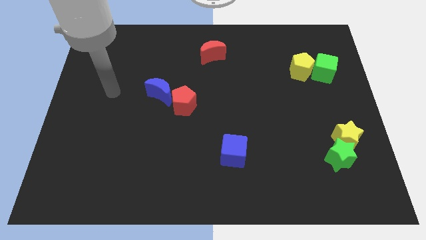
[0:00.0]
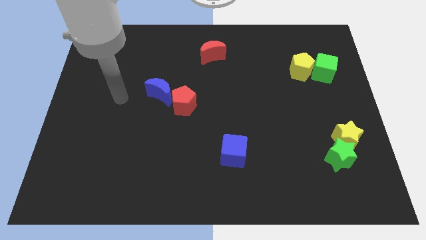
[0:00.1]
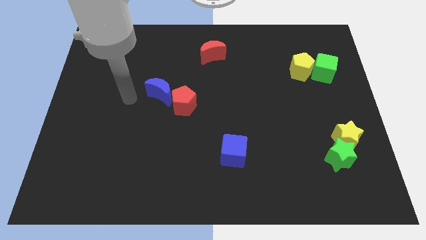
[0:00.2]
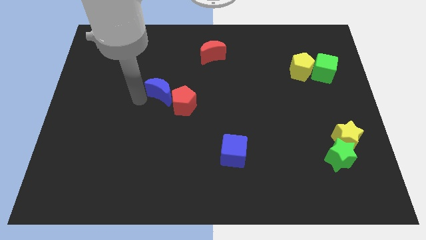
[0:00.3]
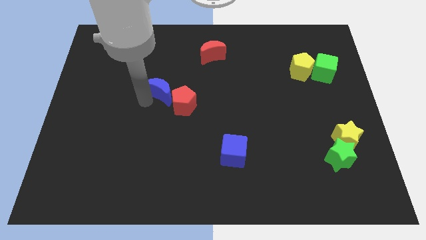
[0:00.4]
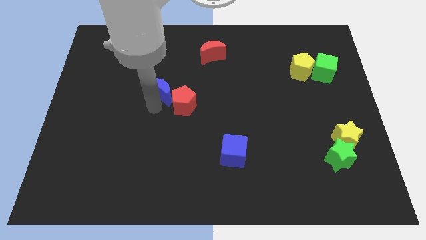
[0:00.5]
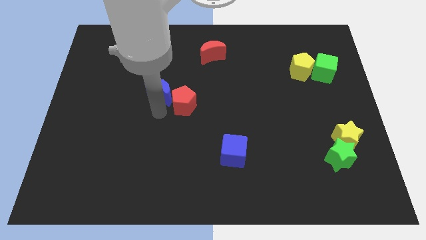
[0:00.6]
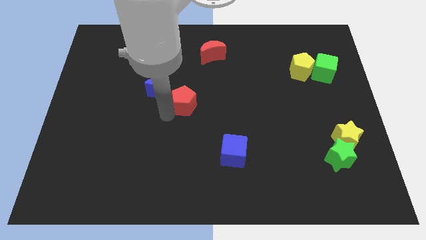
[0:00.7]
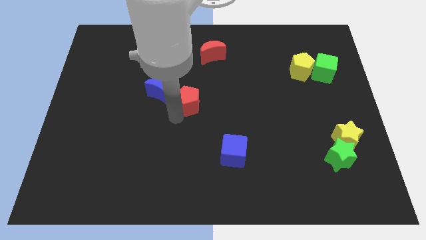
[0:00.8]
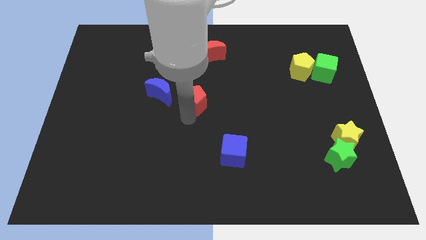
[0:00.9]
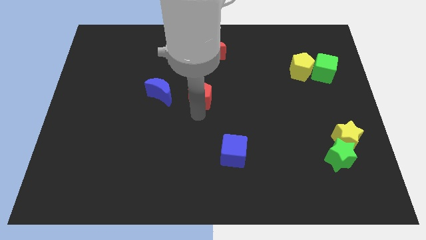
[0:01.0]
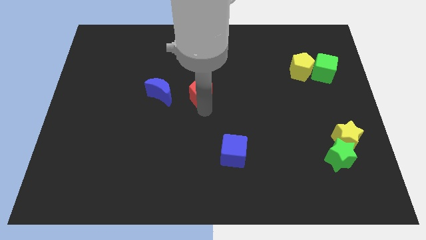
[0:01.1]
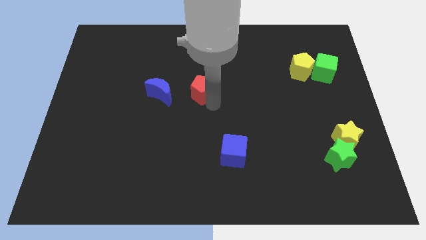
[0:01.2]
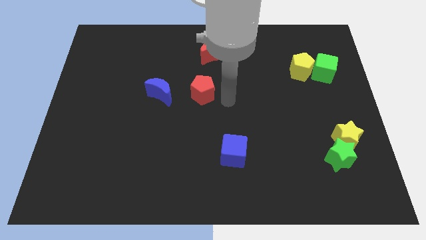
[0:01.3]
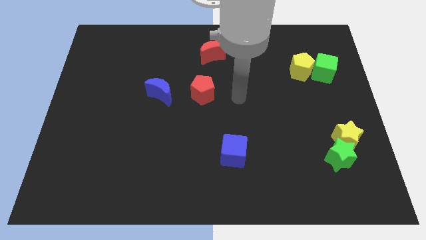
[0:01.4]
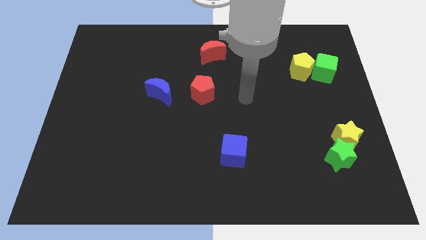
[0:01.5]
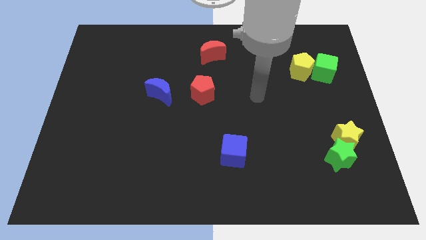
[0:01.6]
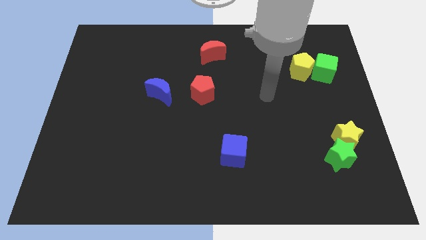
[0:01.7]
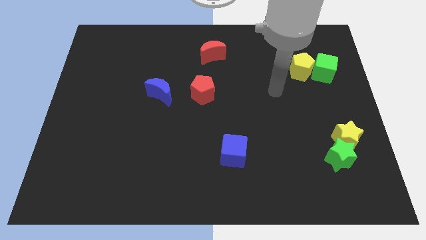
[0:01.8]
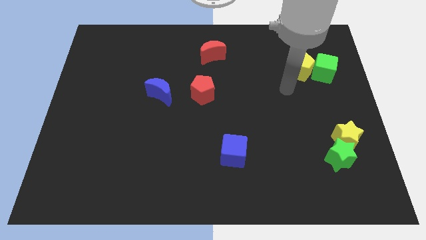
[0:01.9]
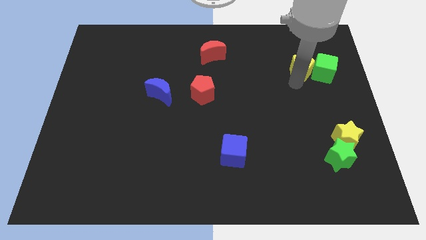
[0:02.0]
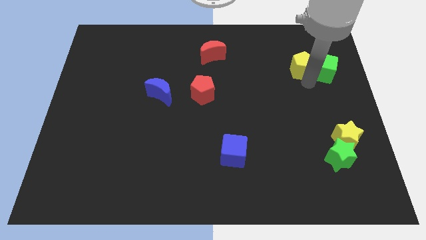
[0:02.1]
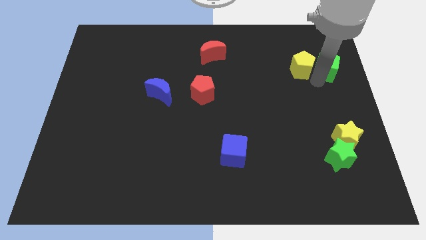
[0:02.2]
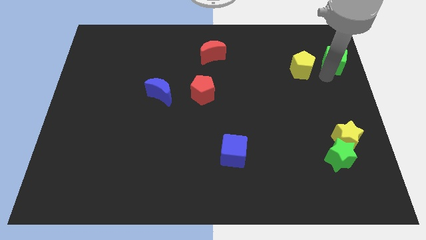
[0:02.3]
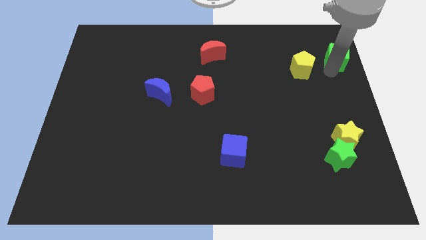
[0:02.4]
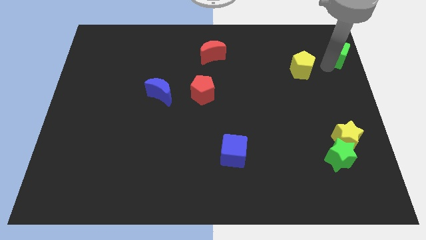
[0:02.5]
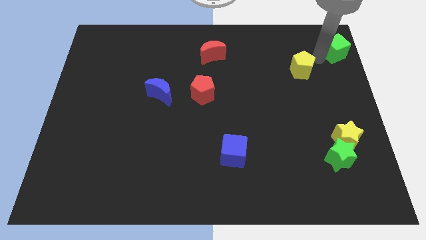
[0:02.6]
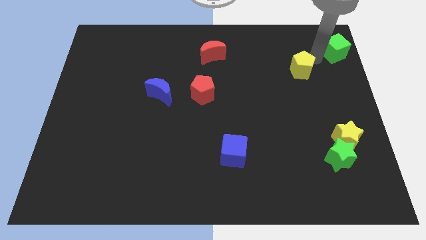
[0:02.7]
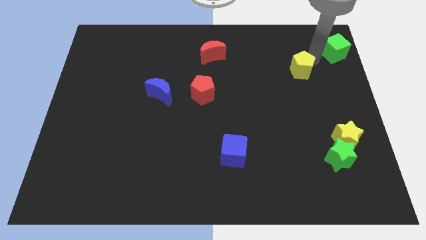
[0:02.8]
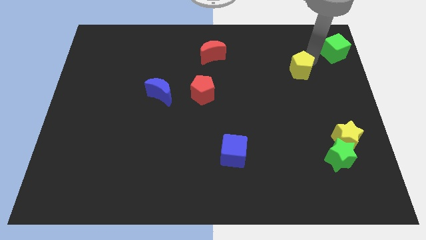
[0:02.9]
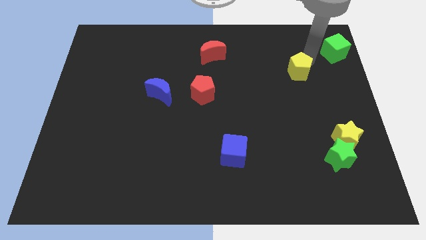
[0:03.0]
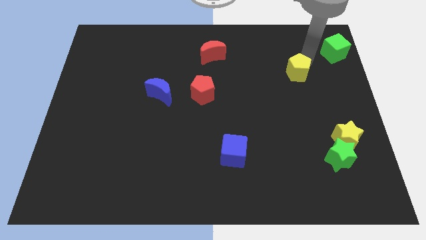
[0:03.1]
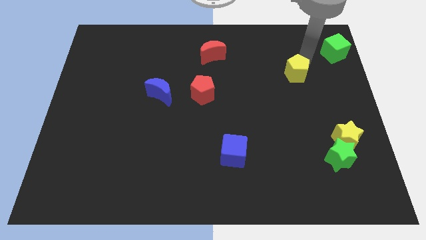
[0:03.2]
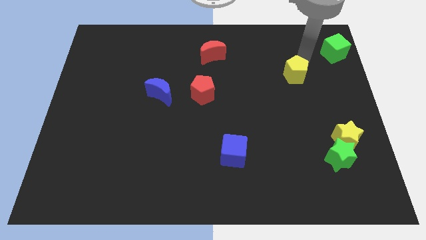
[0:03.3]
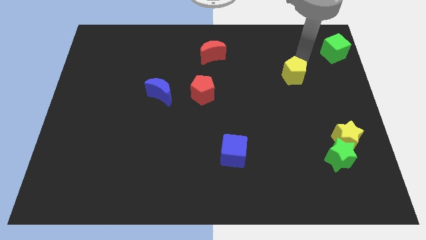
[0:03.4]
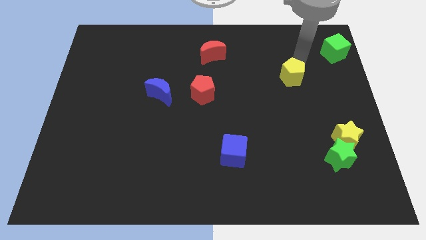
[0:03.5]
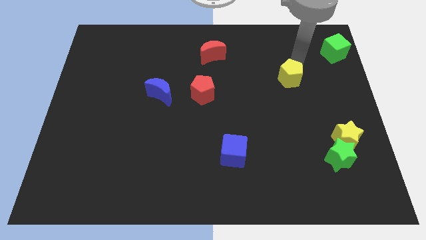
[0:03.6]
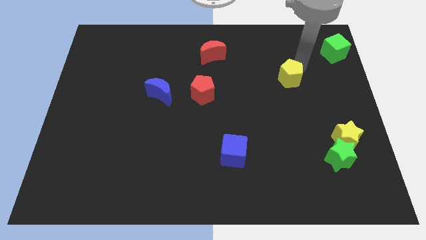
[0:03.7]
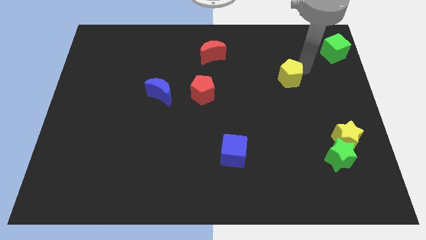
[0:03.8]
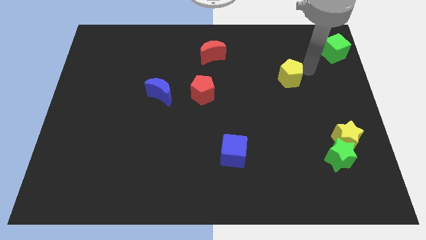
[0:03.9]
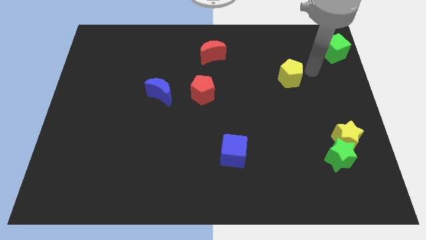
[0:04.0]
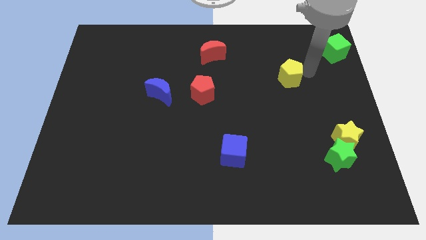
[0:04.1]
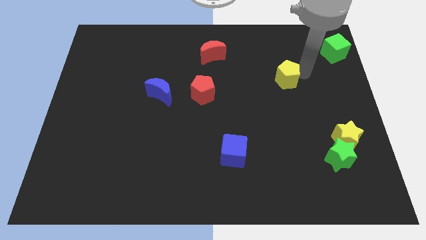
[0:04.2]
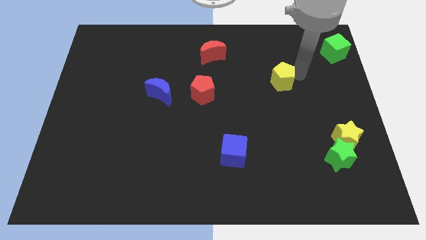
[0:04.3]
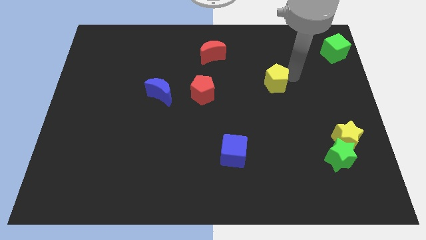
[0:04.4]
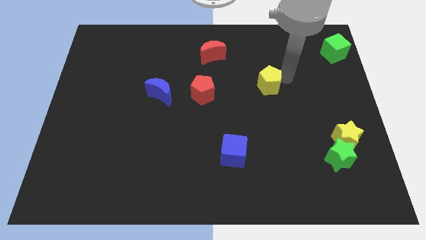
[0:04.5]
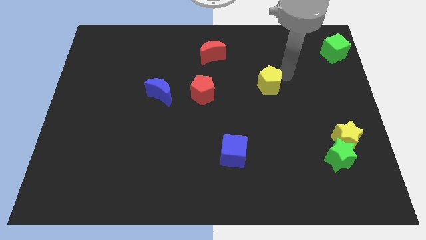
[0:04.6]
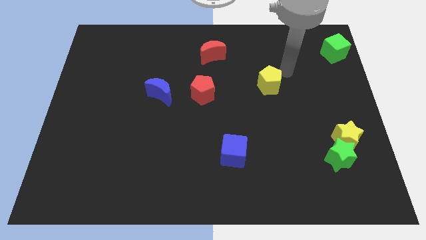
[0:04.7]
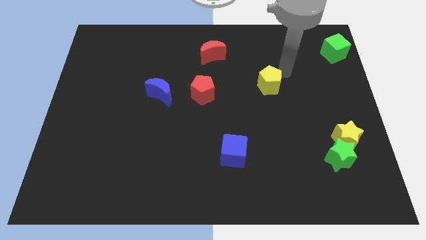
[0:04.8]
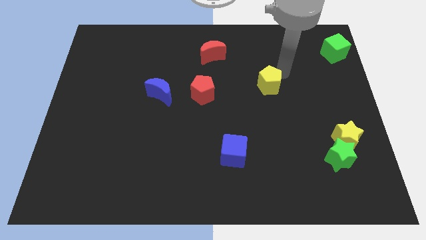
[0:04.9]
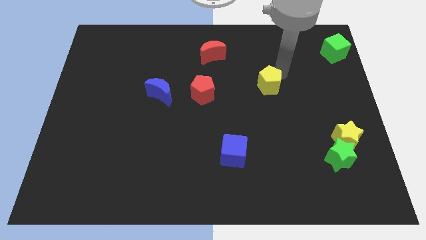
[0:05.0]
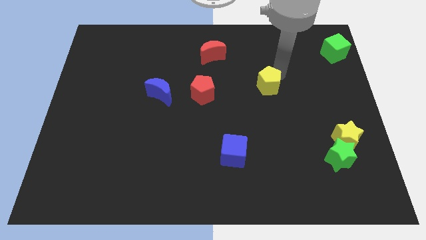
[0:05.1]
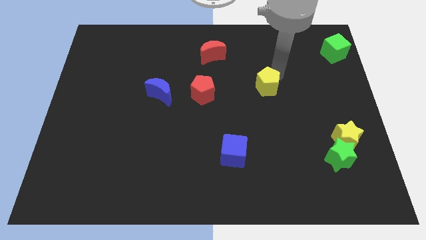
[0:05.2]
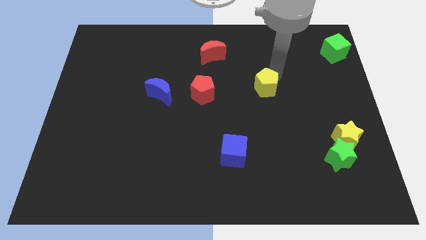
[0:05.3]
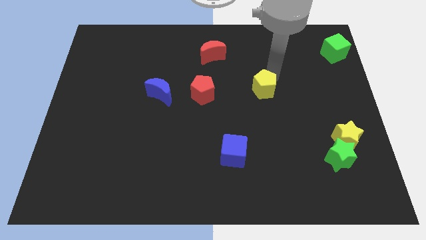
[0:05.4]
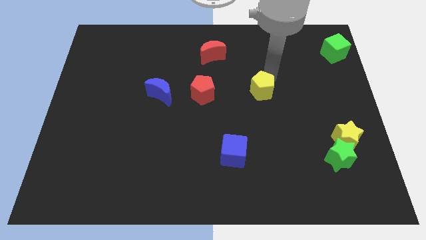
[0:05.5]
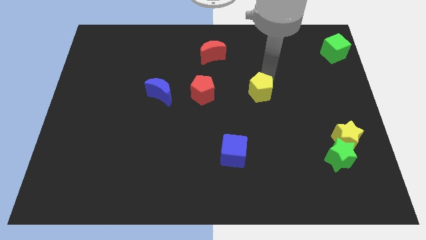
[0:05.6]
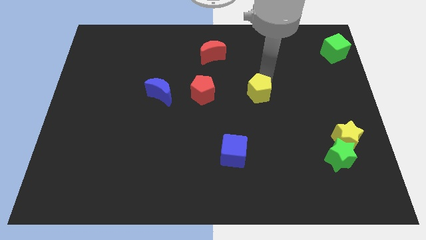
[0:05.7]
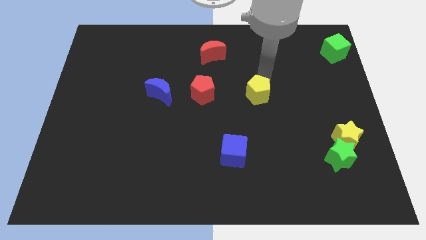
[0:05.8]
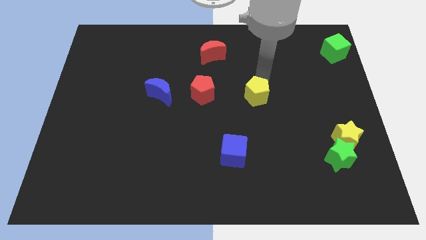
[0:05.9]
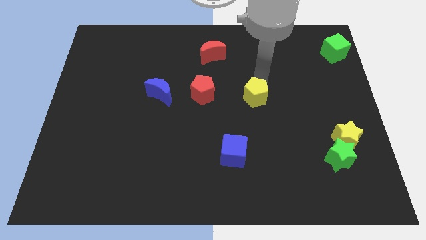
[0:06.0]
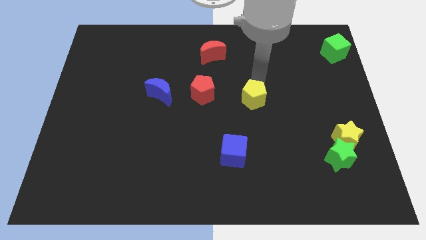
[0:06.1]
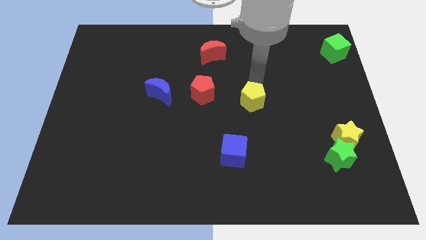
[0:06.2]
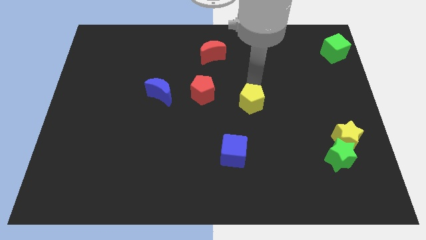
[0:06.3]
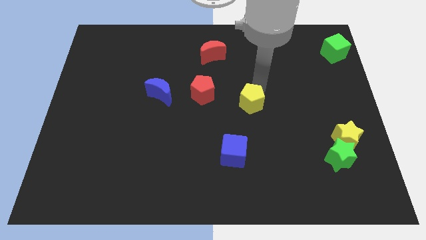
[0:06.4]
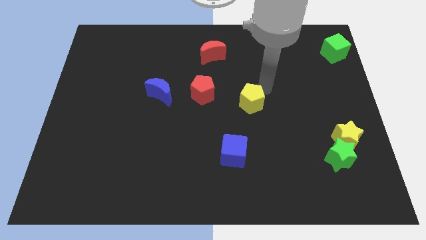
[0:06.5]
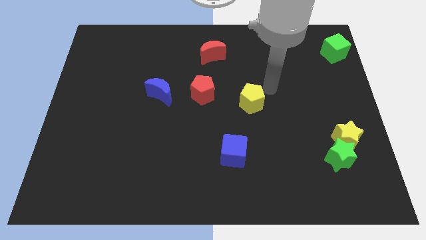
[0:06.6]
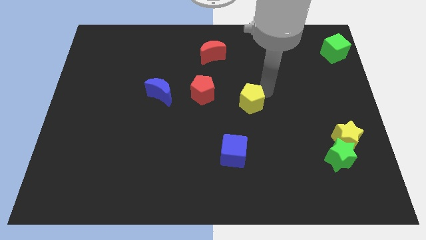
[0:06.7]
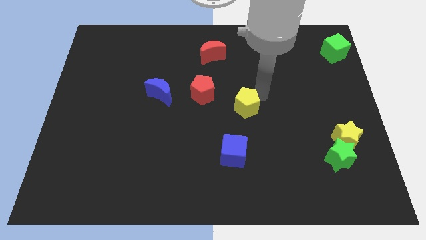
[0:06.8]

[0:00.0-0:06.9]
slide the yellow pentagon above the blue cube
